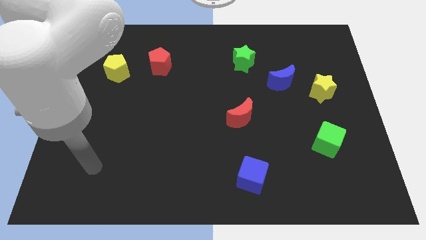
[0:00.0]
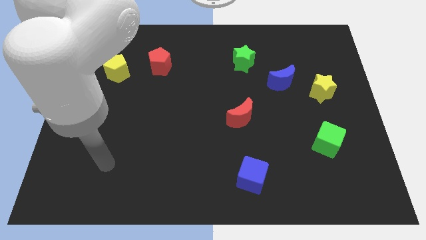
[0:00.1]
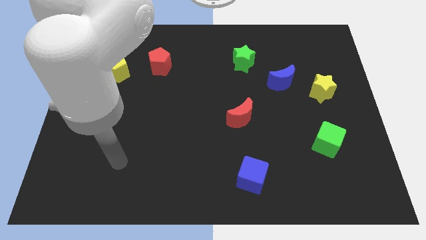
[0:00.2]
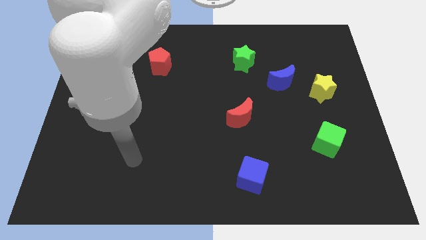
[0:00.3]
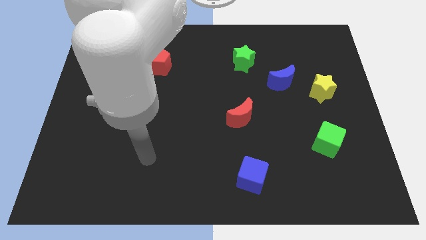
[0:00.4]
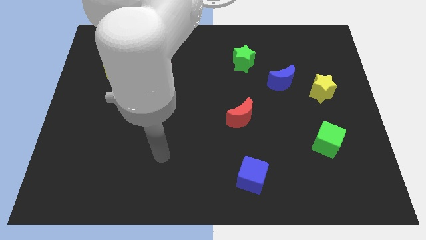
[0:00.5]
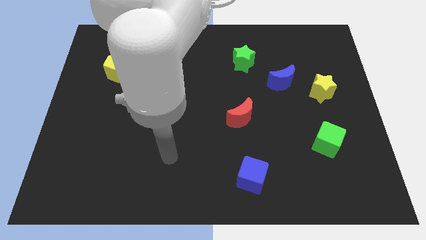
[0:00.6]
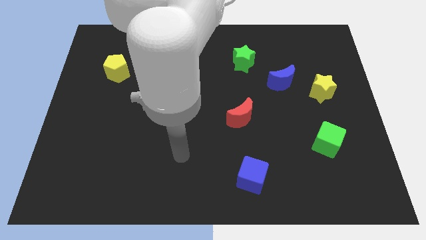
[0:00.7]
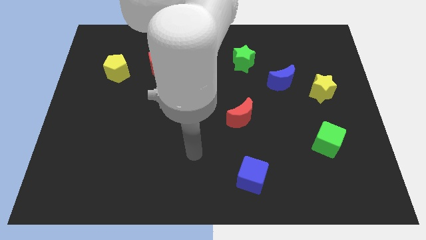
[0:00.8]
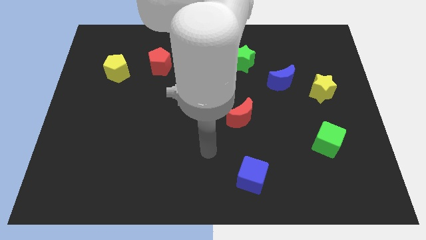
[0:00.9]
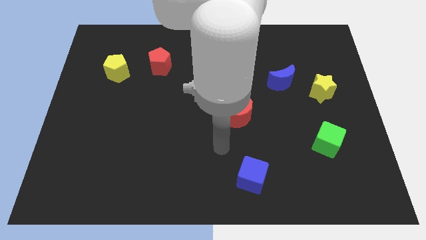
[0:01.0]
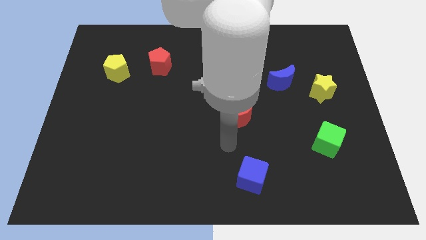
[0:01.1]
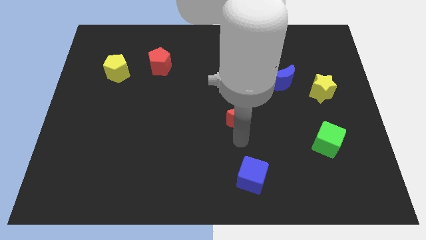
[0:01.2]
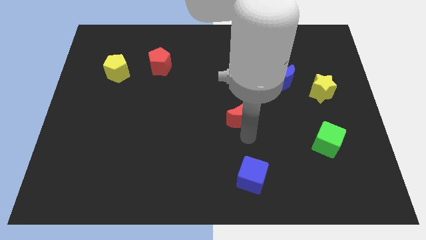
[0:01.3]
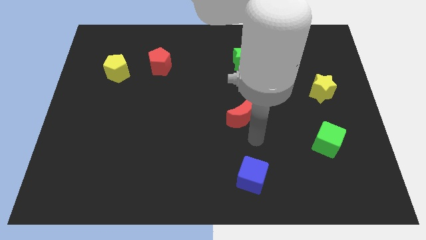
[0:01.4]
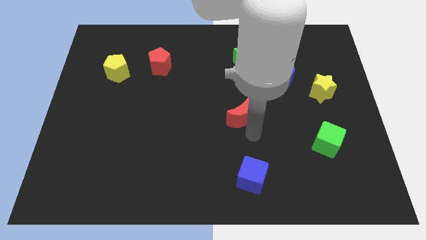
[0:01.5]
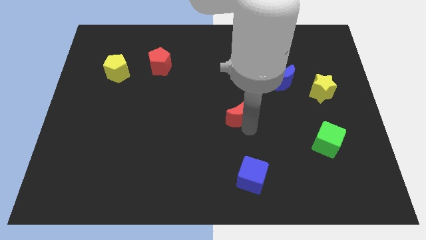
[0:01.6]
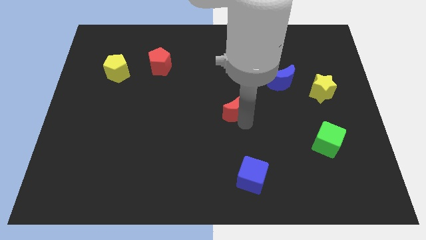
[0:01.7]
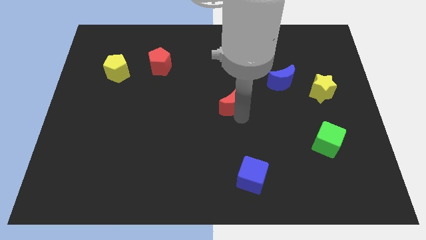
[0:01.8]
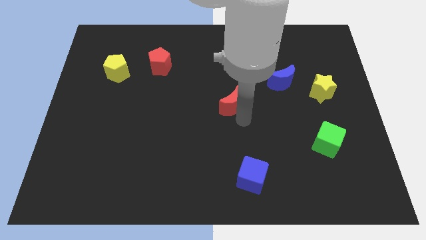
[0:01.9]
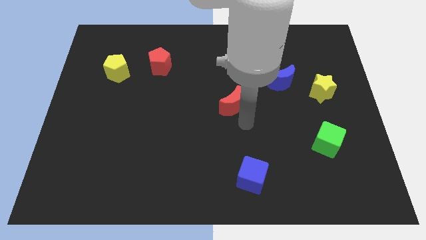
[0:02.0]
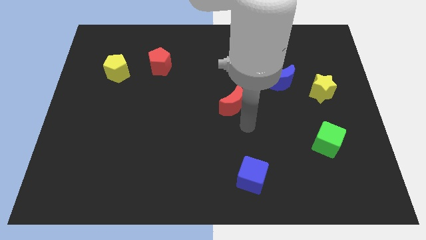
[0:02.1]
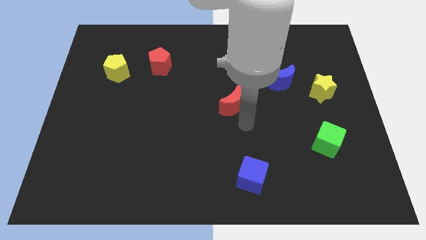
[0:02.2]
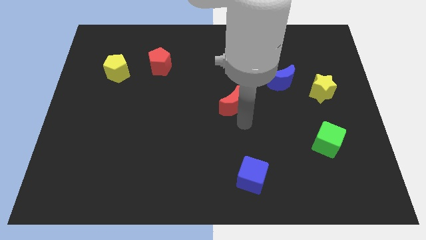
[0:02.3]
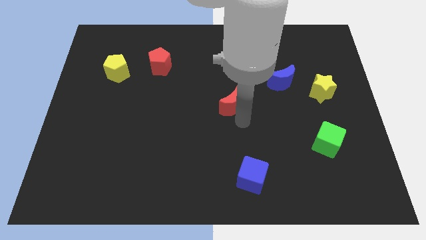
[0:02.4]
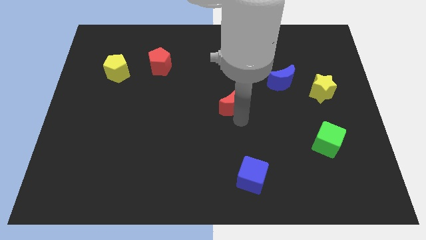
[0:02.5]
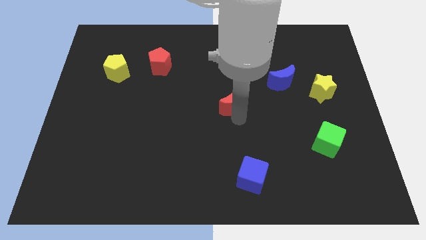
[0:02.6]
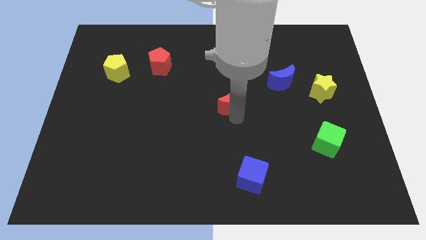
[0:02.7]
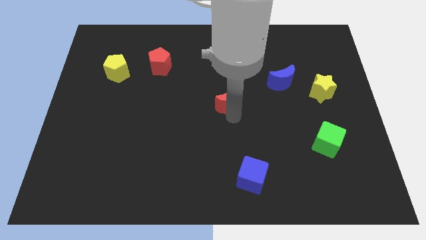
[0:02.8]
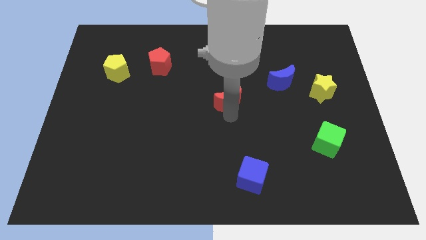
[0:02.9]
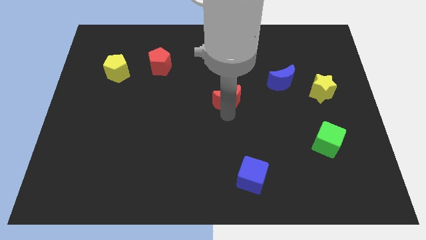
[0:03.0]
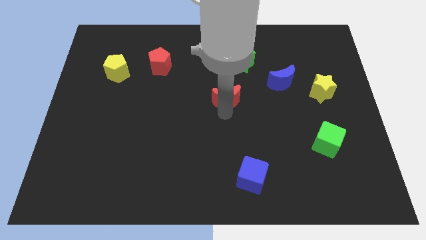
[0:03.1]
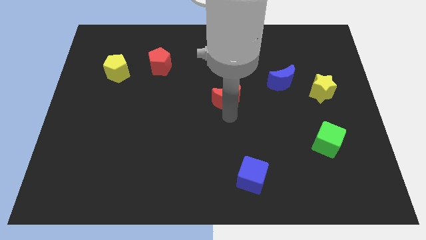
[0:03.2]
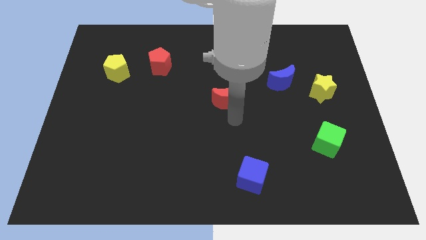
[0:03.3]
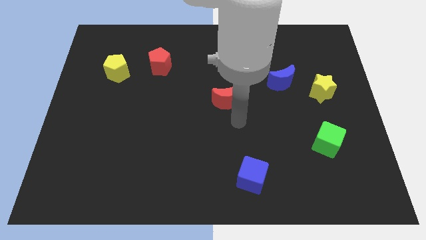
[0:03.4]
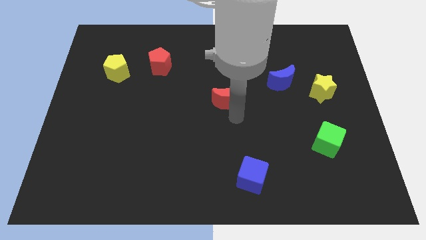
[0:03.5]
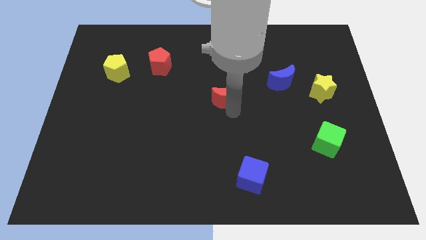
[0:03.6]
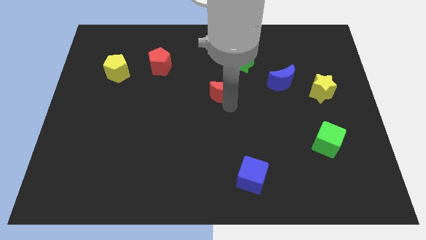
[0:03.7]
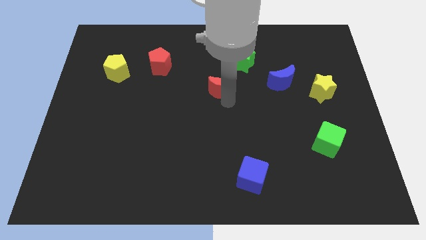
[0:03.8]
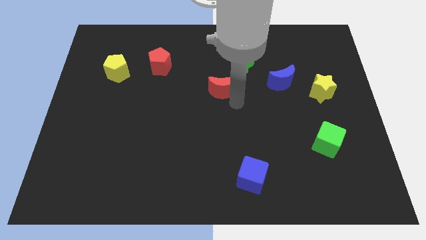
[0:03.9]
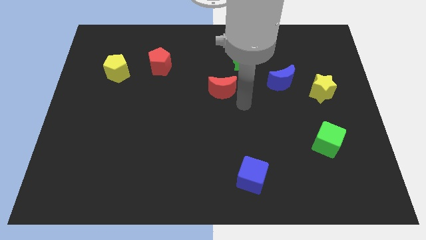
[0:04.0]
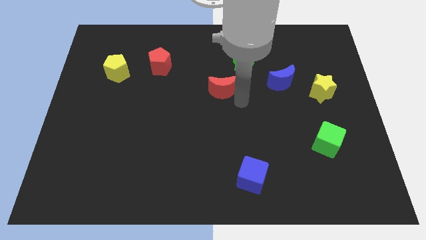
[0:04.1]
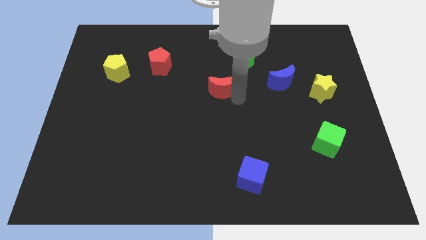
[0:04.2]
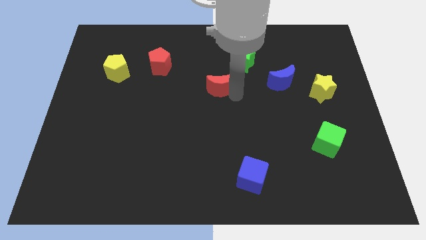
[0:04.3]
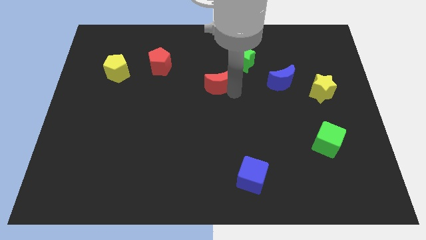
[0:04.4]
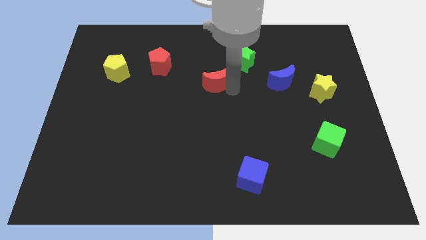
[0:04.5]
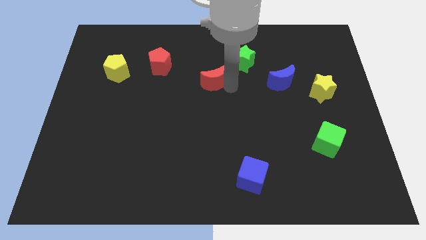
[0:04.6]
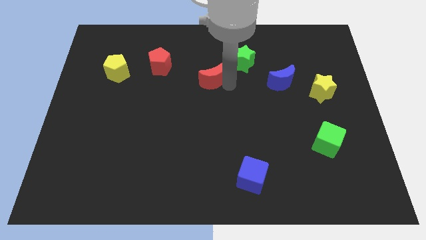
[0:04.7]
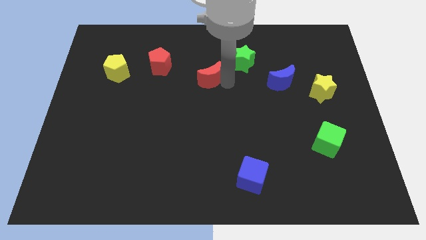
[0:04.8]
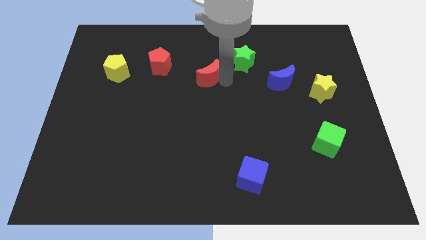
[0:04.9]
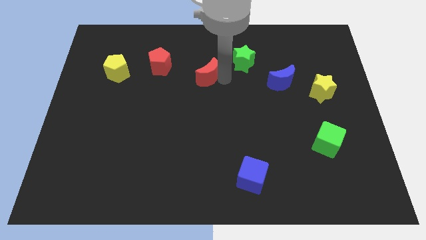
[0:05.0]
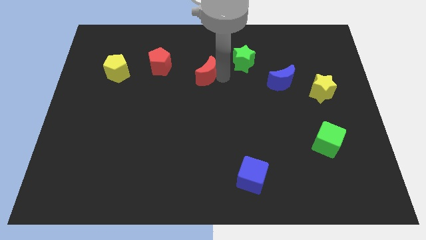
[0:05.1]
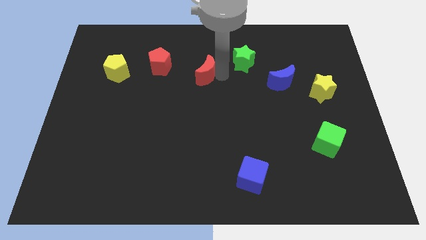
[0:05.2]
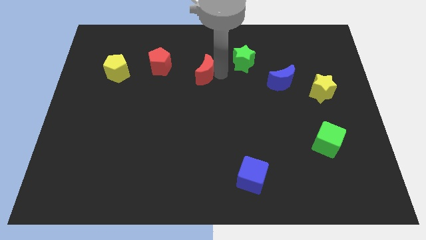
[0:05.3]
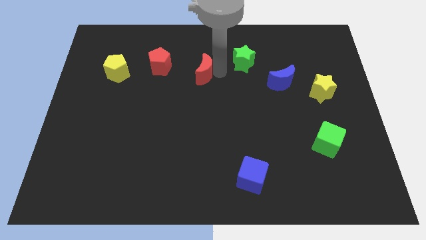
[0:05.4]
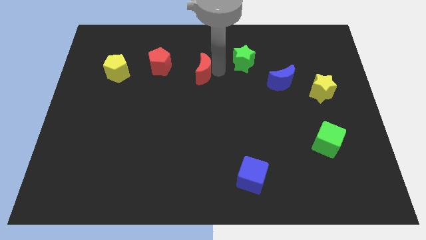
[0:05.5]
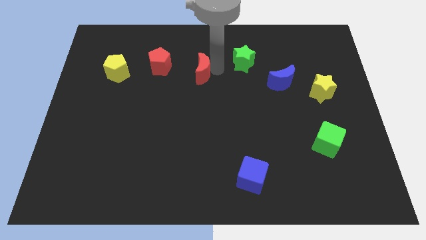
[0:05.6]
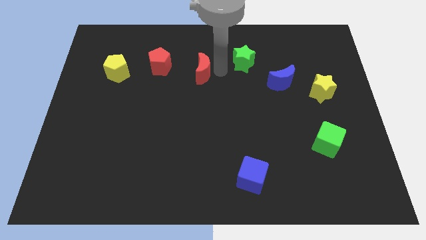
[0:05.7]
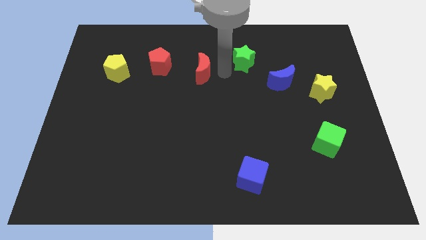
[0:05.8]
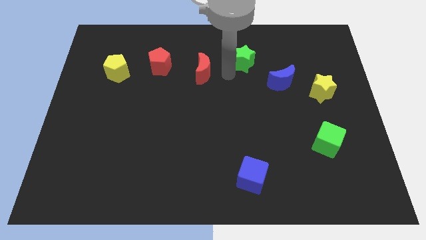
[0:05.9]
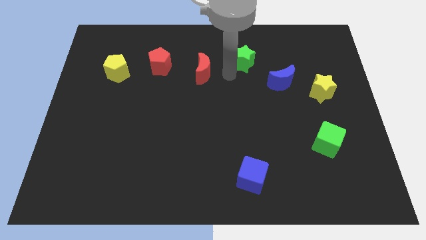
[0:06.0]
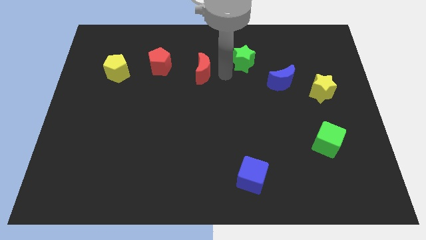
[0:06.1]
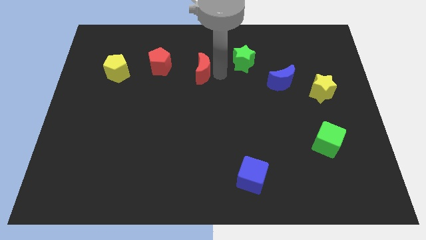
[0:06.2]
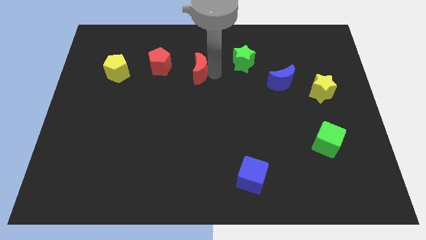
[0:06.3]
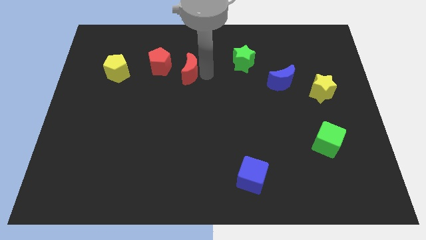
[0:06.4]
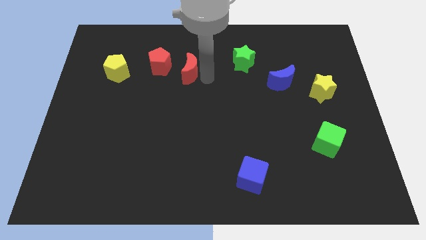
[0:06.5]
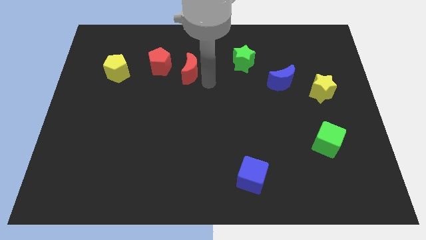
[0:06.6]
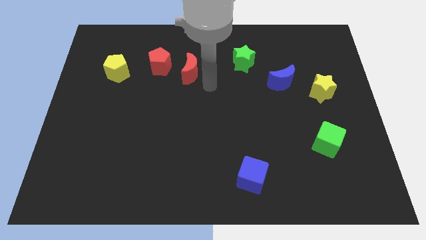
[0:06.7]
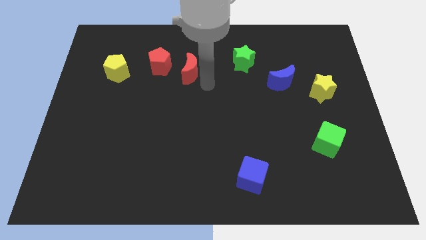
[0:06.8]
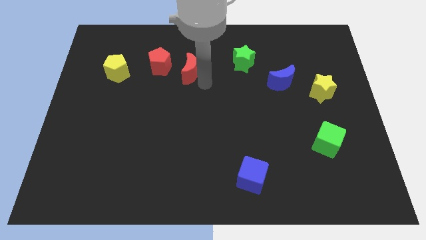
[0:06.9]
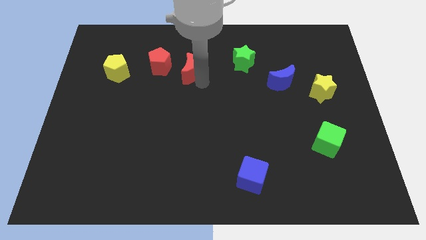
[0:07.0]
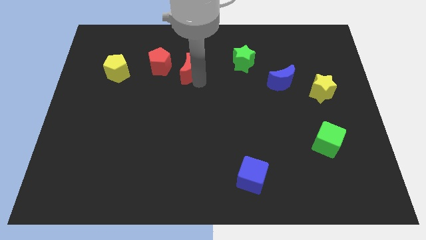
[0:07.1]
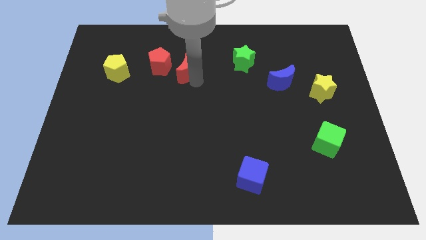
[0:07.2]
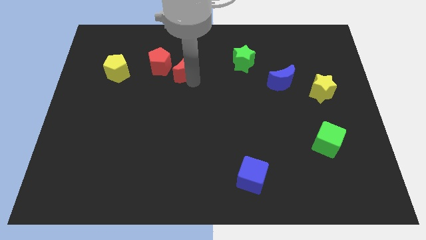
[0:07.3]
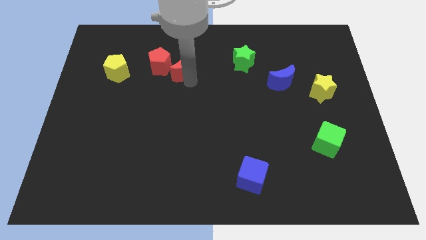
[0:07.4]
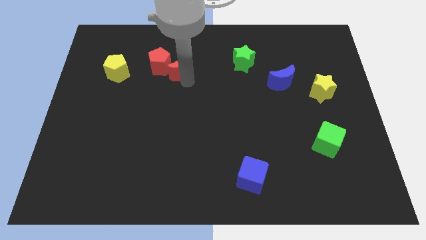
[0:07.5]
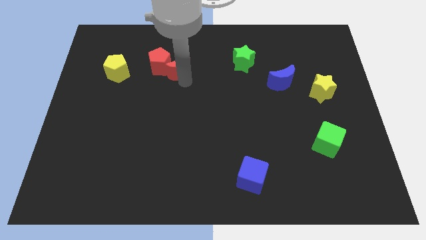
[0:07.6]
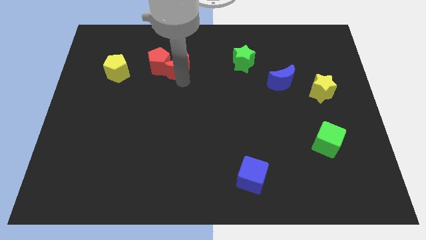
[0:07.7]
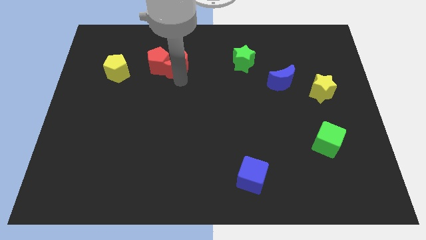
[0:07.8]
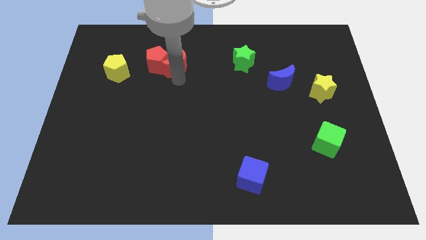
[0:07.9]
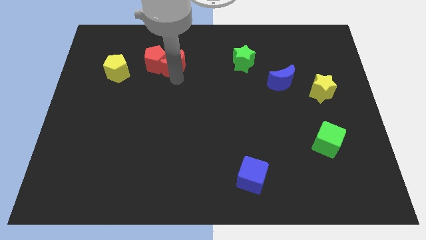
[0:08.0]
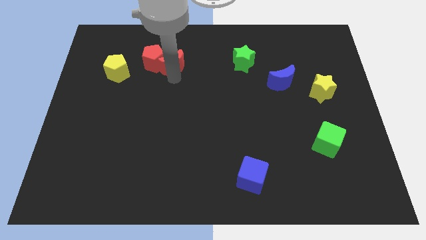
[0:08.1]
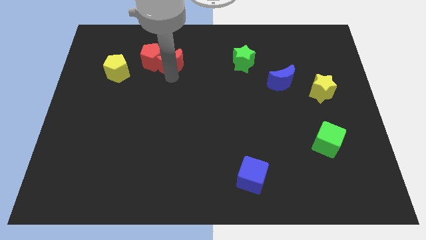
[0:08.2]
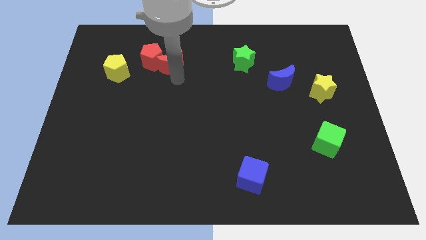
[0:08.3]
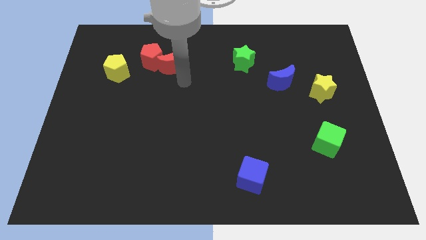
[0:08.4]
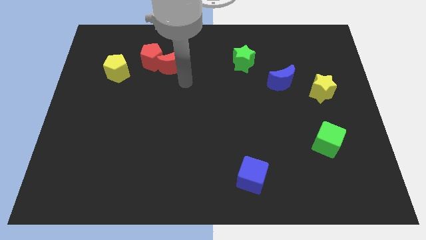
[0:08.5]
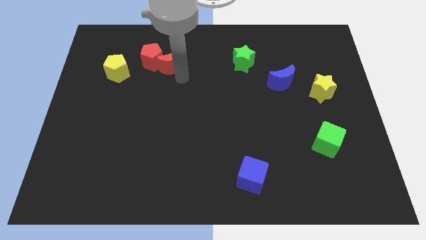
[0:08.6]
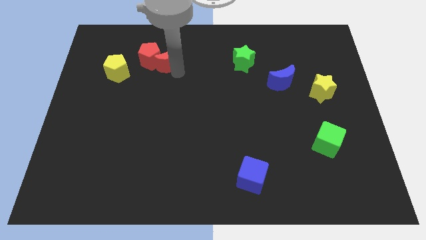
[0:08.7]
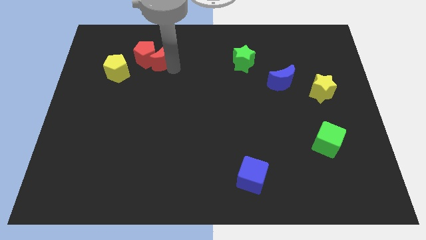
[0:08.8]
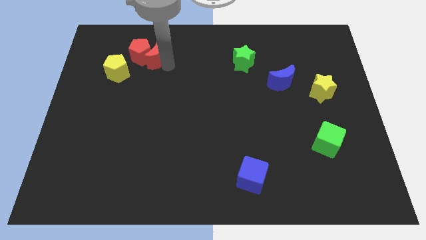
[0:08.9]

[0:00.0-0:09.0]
put the red moon diagonally up and to the right of the yellow pentagon
